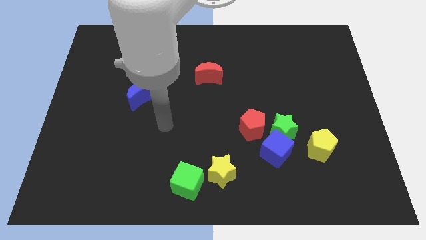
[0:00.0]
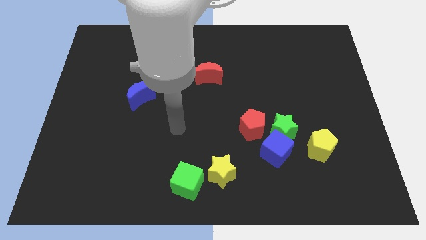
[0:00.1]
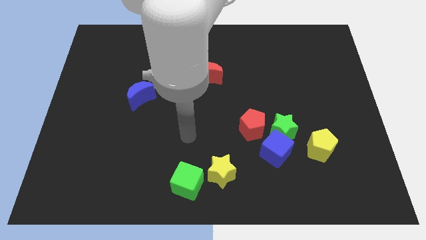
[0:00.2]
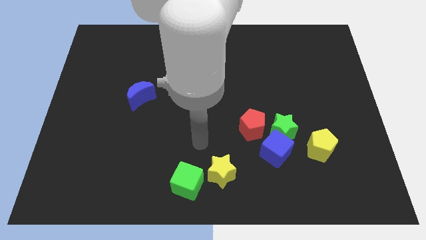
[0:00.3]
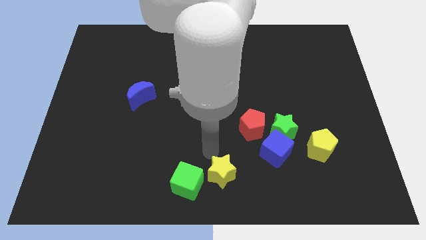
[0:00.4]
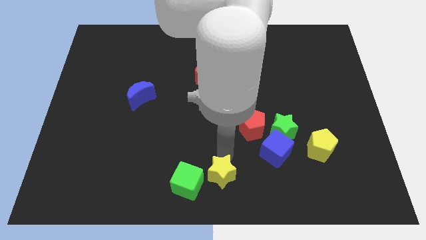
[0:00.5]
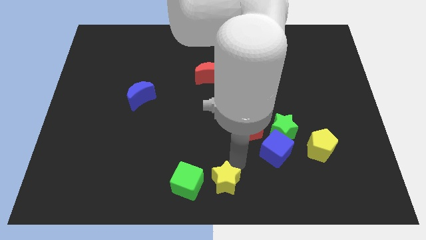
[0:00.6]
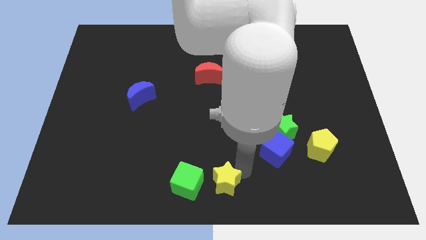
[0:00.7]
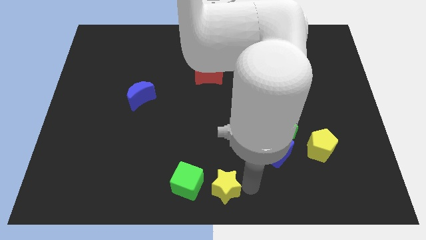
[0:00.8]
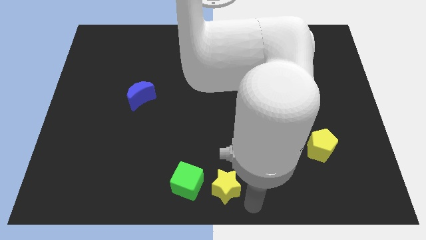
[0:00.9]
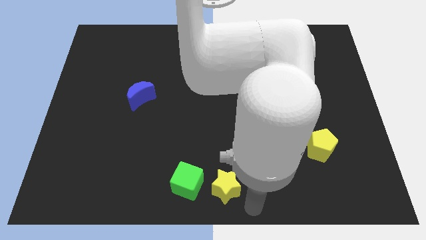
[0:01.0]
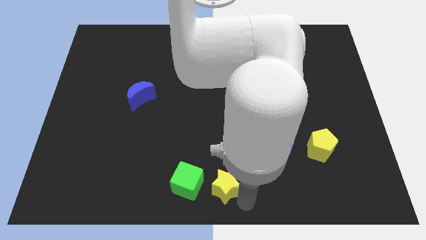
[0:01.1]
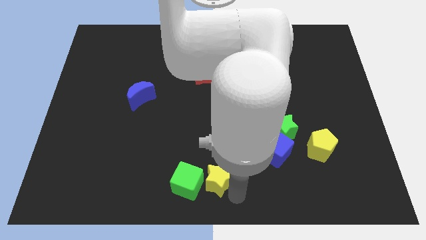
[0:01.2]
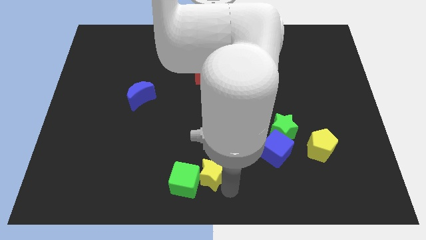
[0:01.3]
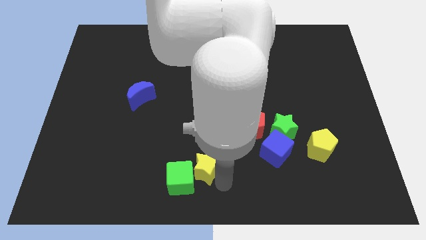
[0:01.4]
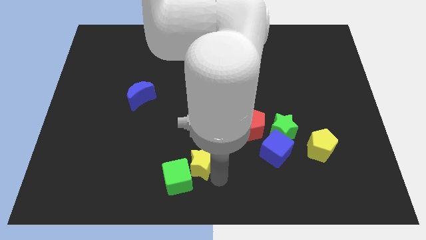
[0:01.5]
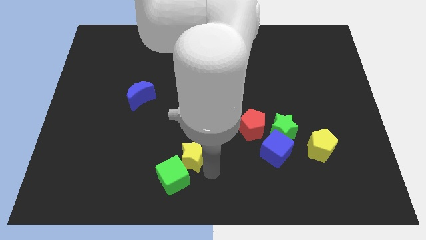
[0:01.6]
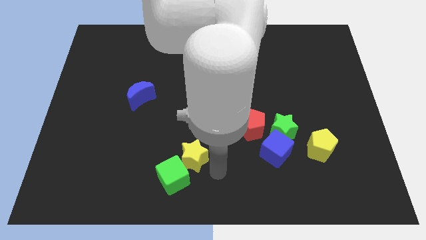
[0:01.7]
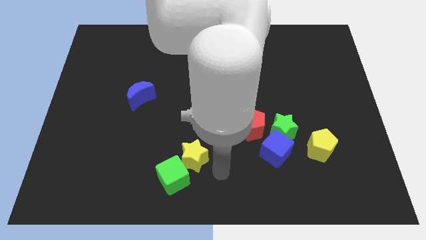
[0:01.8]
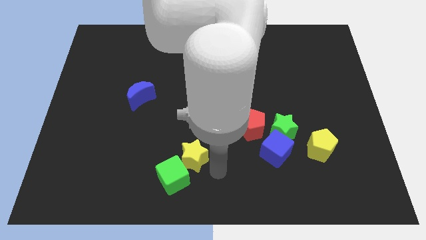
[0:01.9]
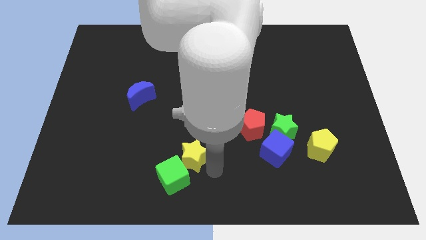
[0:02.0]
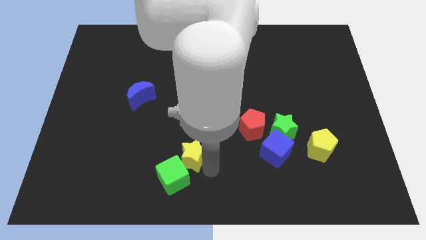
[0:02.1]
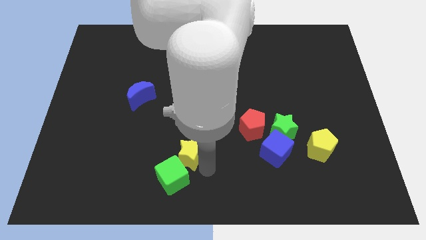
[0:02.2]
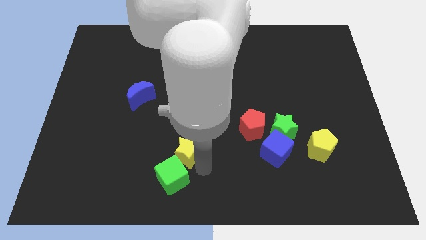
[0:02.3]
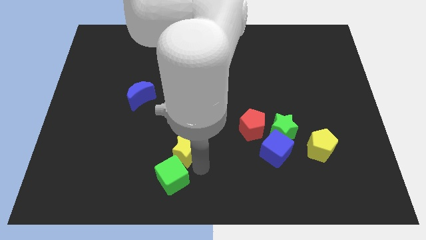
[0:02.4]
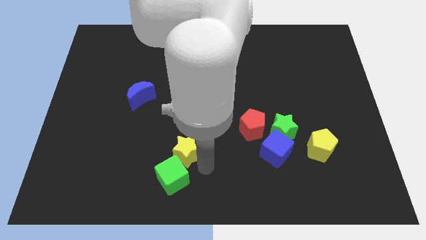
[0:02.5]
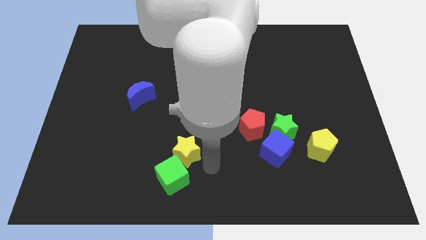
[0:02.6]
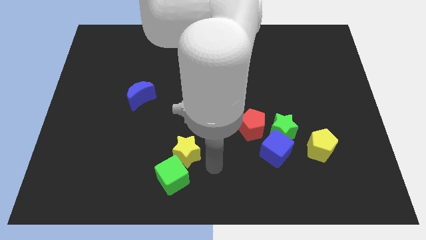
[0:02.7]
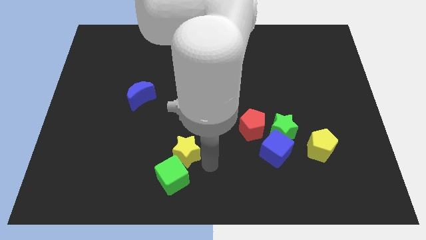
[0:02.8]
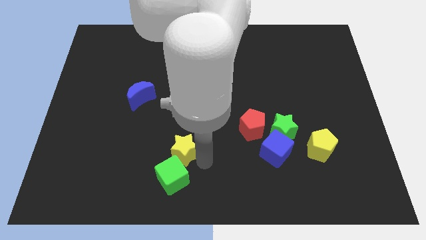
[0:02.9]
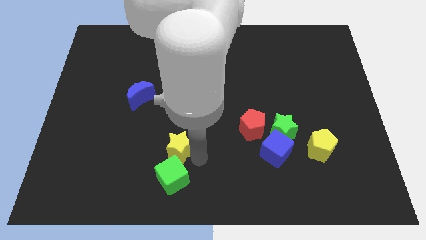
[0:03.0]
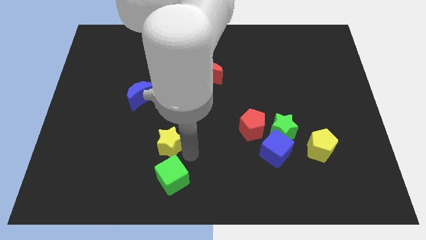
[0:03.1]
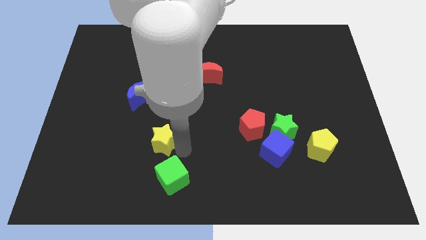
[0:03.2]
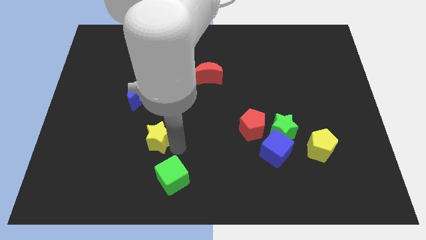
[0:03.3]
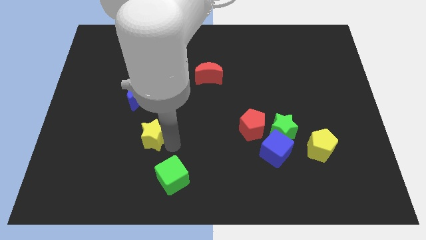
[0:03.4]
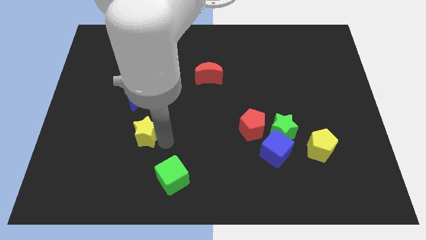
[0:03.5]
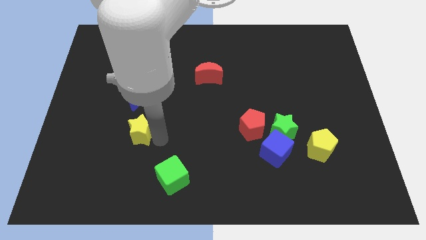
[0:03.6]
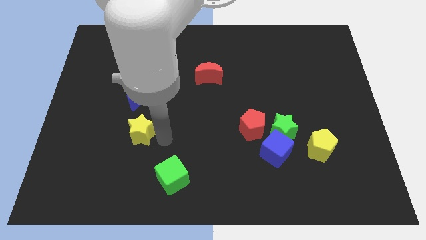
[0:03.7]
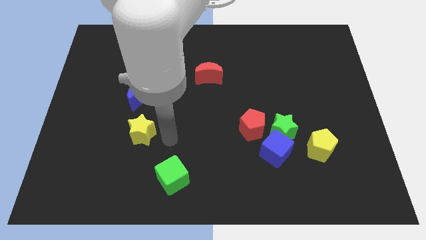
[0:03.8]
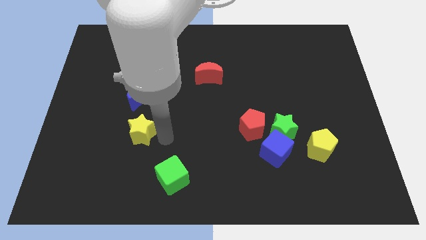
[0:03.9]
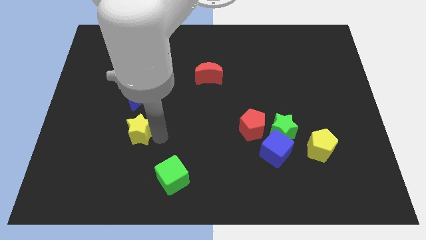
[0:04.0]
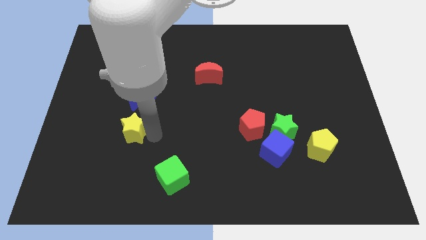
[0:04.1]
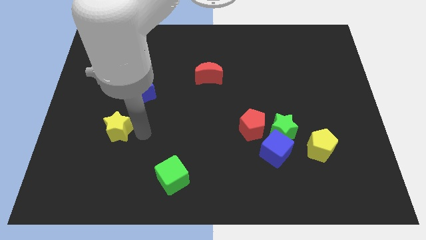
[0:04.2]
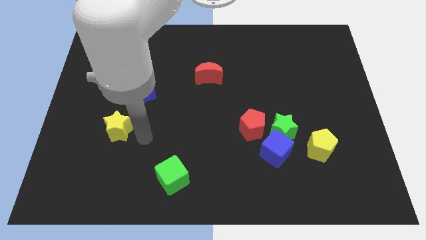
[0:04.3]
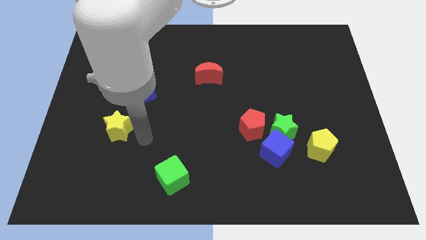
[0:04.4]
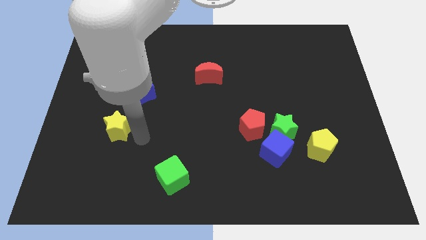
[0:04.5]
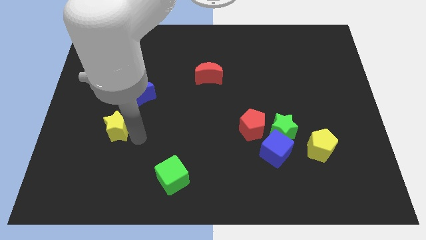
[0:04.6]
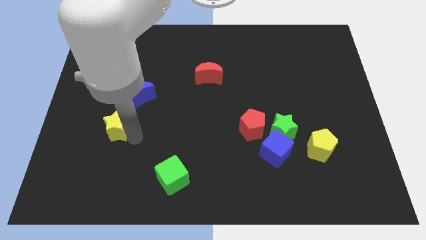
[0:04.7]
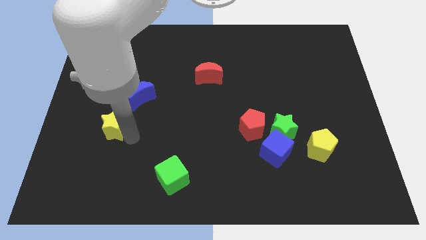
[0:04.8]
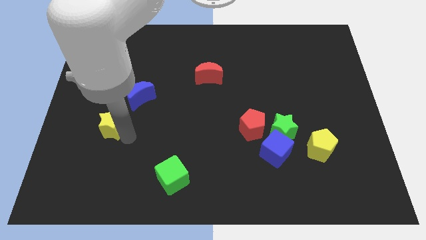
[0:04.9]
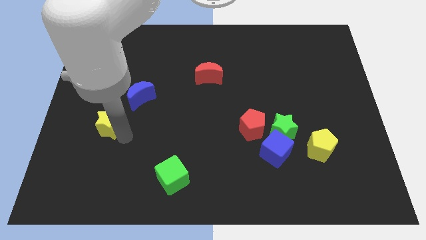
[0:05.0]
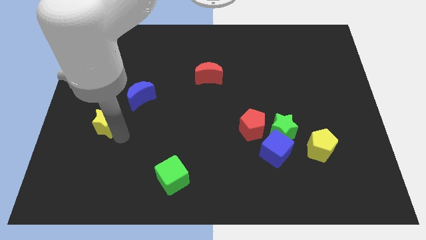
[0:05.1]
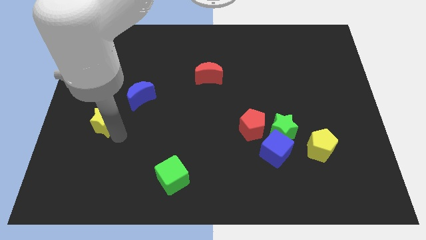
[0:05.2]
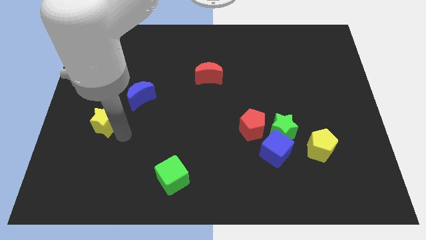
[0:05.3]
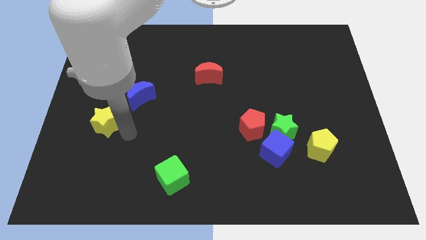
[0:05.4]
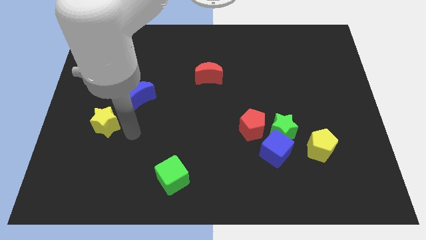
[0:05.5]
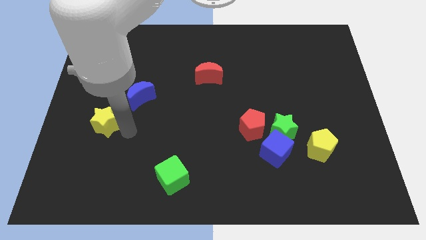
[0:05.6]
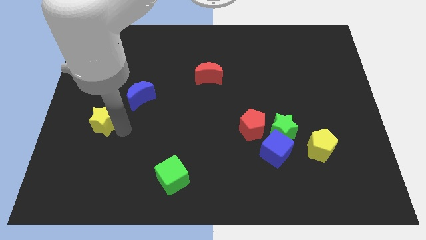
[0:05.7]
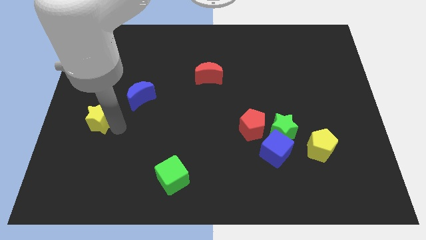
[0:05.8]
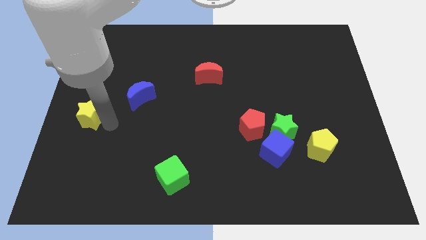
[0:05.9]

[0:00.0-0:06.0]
put the yellow star to the left side
